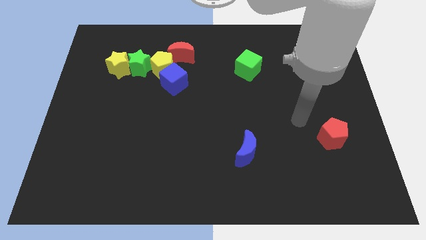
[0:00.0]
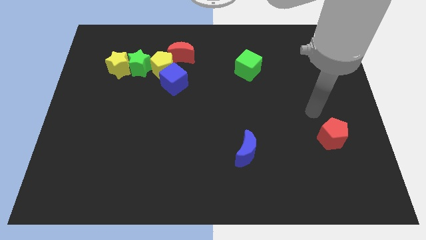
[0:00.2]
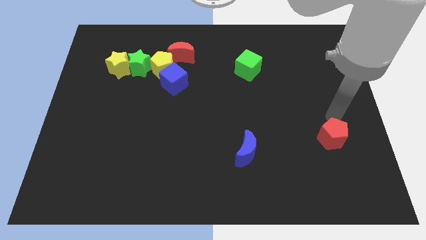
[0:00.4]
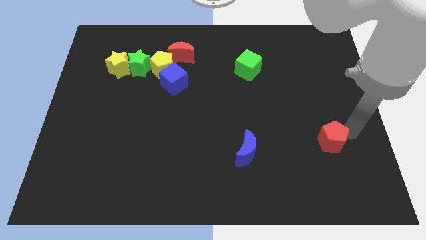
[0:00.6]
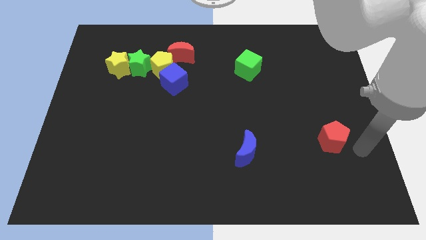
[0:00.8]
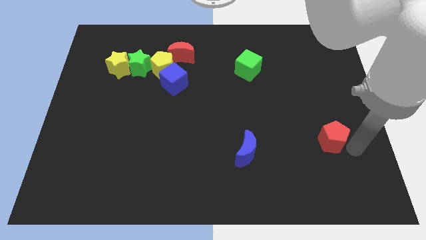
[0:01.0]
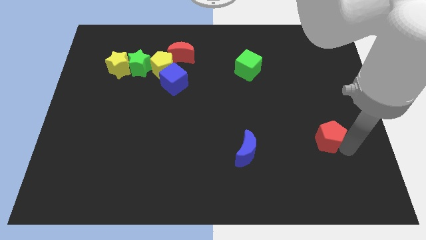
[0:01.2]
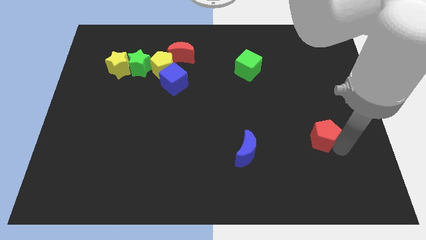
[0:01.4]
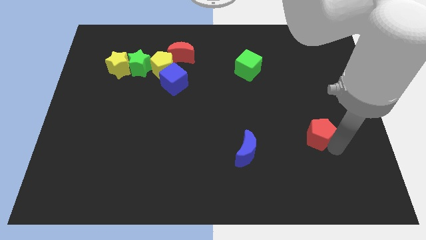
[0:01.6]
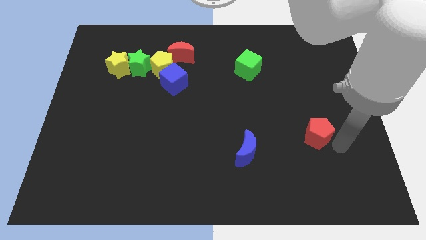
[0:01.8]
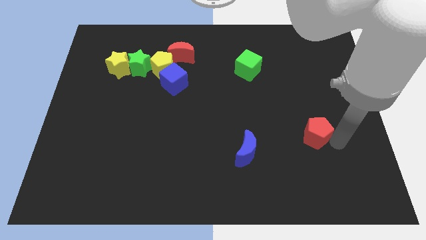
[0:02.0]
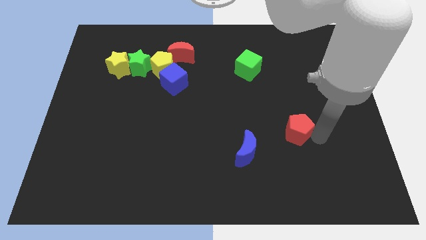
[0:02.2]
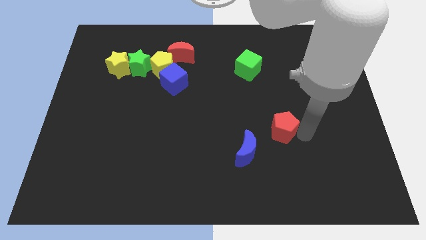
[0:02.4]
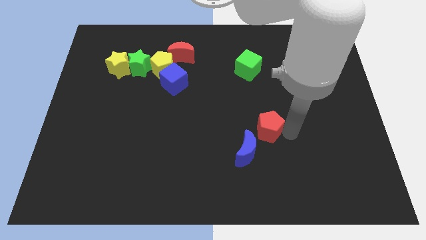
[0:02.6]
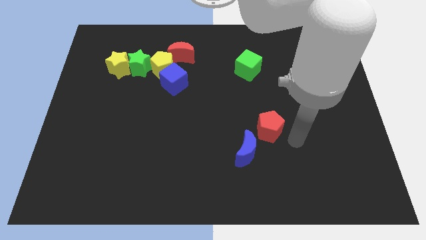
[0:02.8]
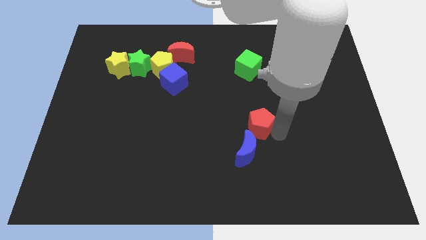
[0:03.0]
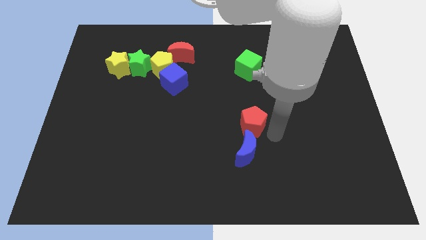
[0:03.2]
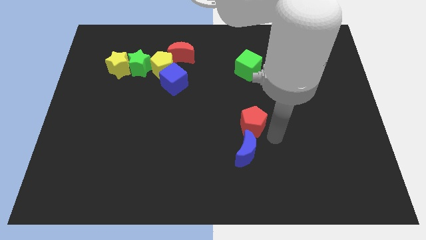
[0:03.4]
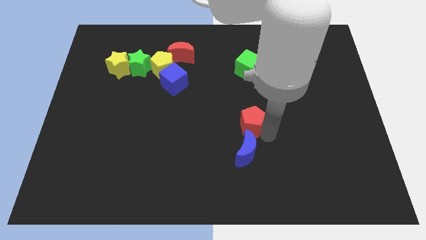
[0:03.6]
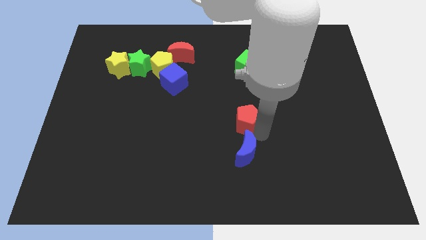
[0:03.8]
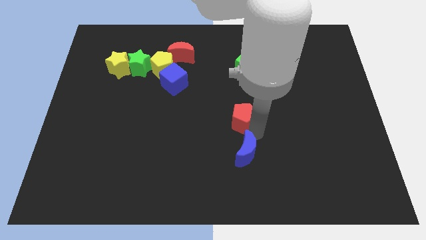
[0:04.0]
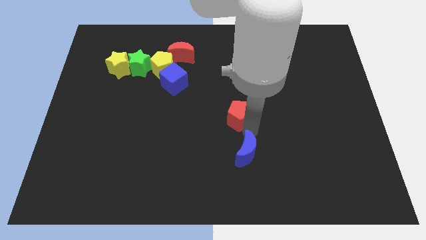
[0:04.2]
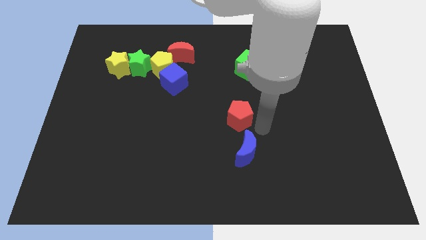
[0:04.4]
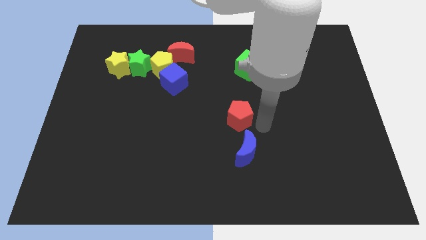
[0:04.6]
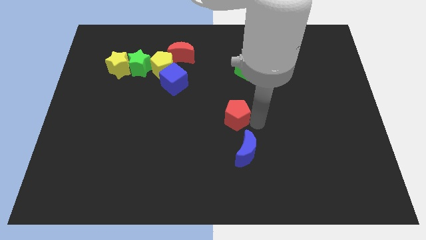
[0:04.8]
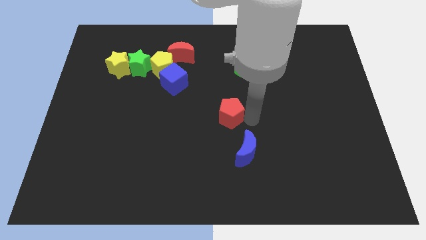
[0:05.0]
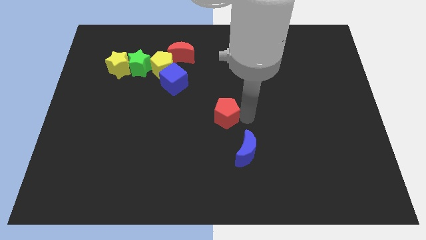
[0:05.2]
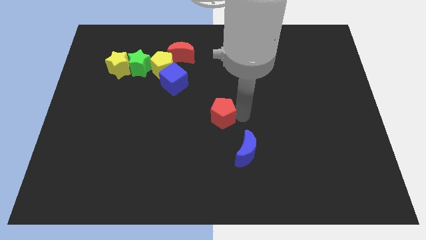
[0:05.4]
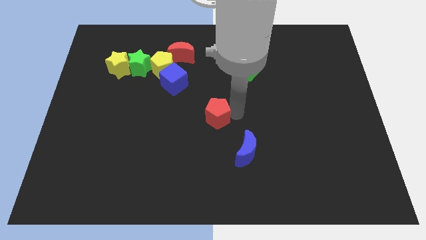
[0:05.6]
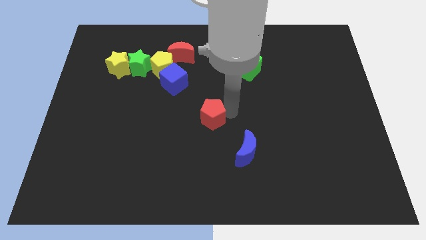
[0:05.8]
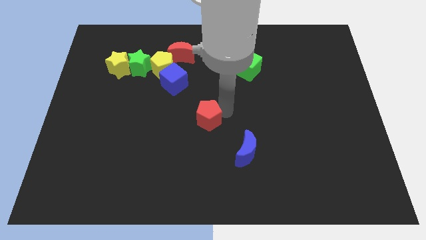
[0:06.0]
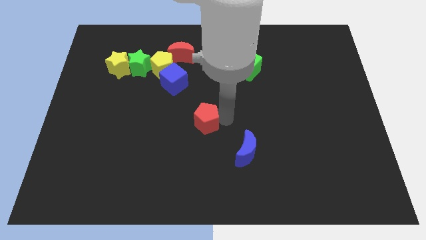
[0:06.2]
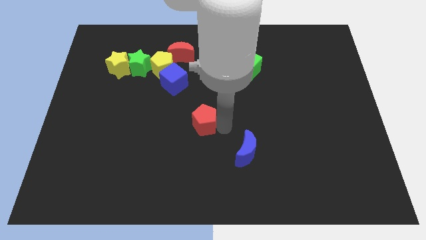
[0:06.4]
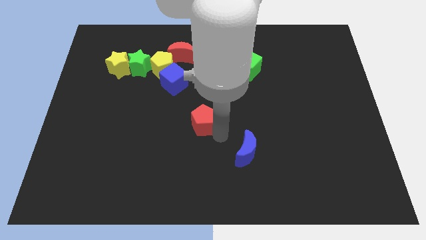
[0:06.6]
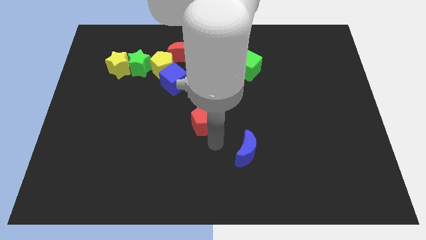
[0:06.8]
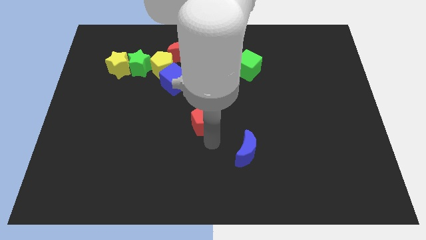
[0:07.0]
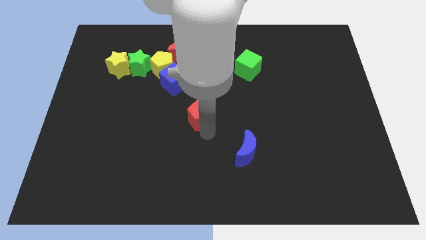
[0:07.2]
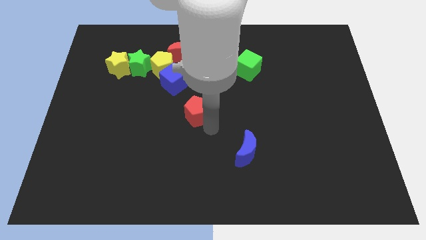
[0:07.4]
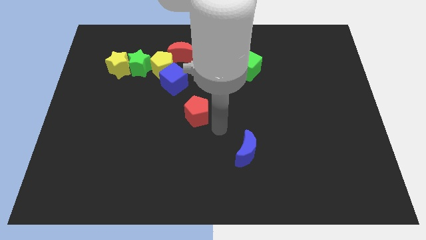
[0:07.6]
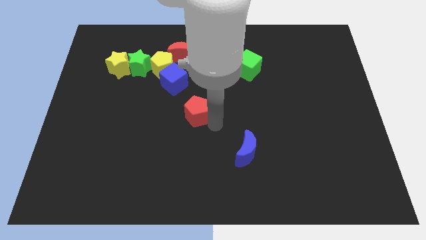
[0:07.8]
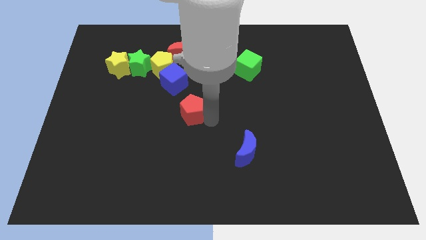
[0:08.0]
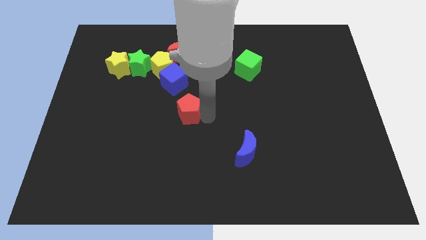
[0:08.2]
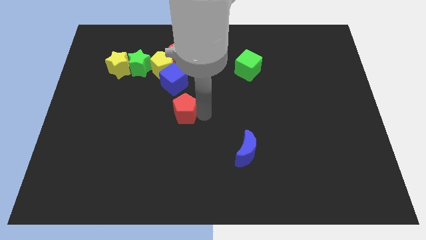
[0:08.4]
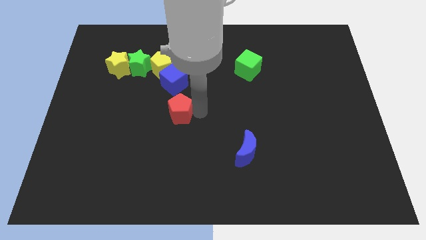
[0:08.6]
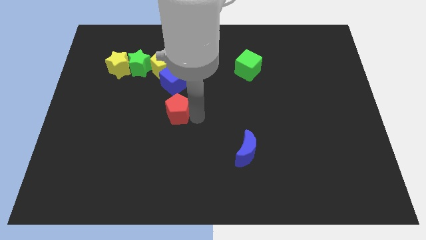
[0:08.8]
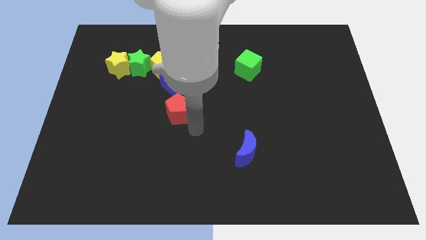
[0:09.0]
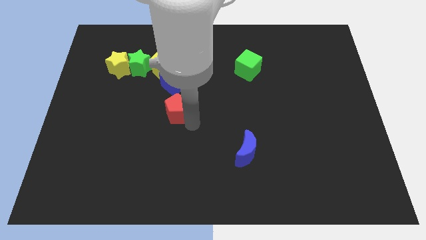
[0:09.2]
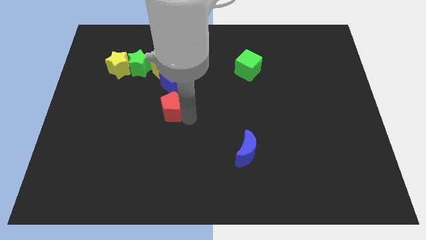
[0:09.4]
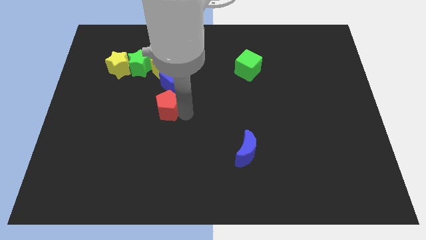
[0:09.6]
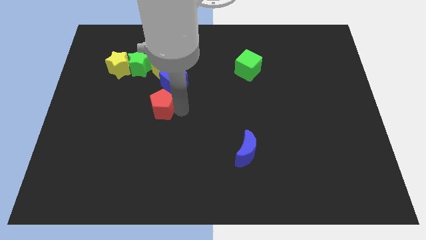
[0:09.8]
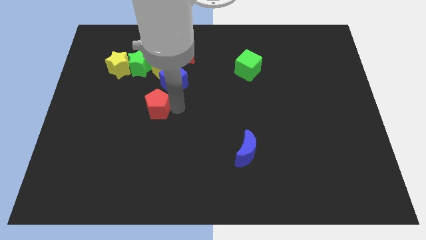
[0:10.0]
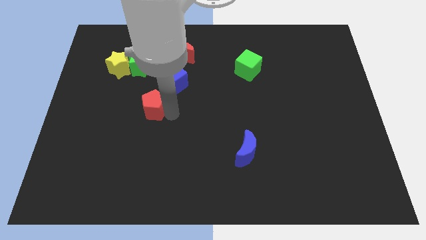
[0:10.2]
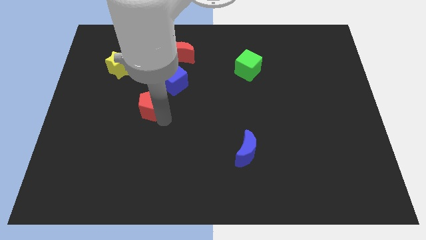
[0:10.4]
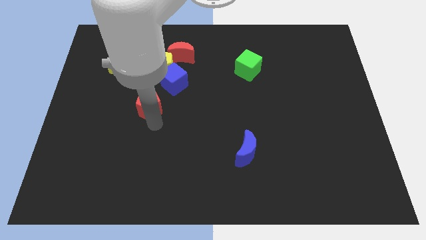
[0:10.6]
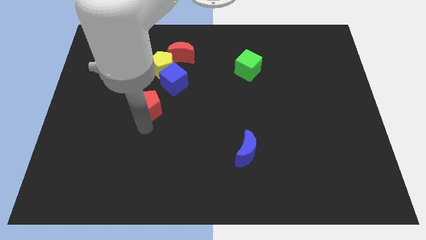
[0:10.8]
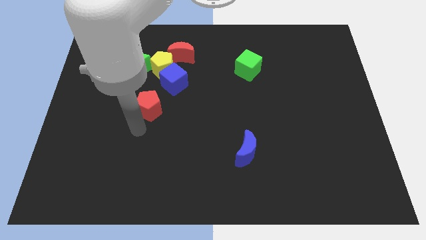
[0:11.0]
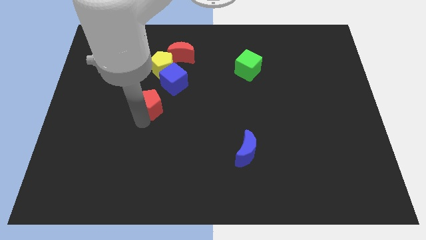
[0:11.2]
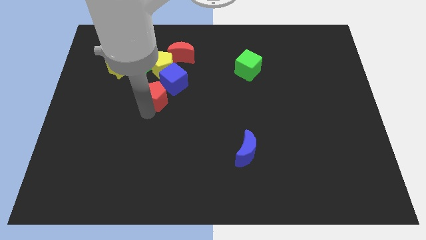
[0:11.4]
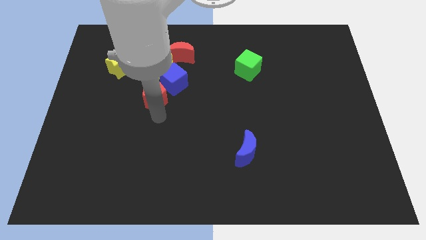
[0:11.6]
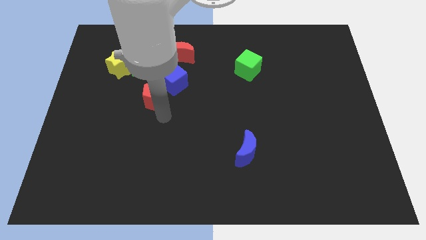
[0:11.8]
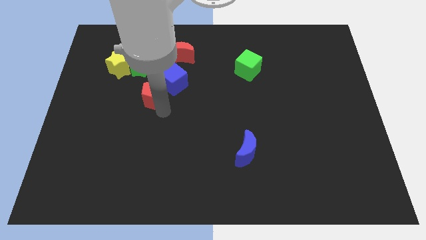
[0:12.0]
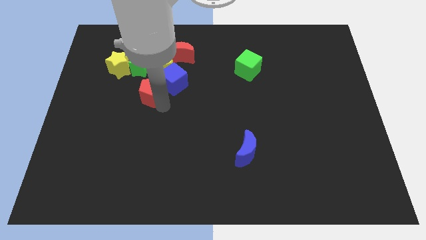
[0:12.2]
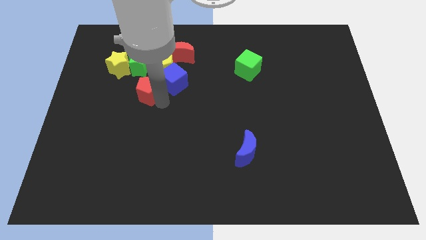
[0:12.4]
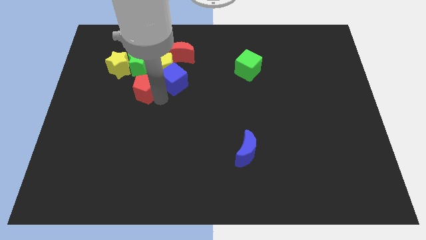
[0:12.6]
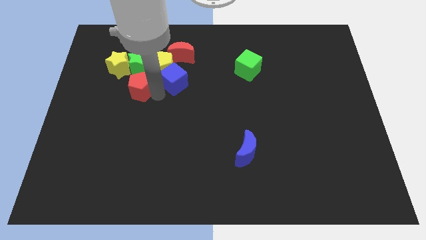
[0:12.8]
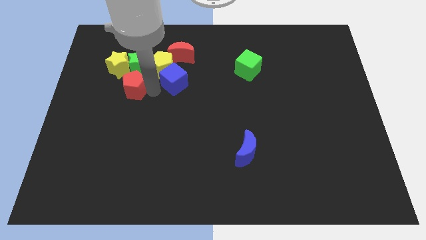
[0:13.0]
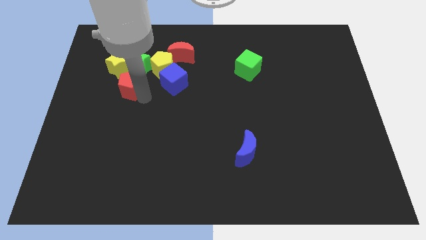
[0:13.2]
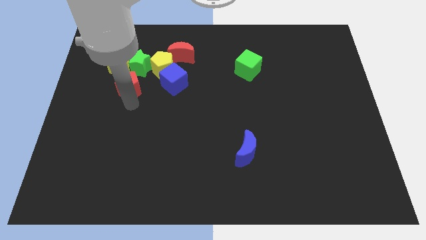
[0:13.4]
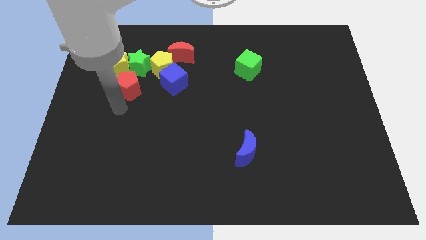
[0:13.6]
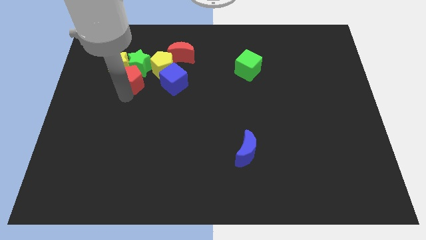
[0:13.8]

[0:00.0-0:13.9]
push the red pentagon close to the green star

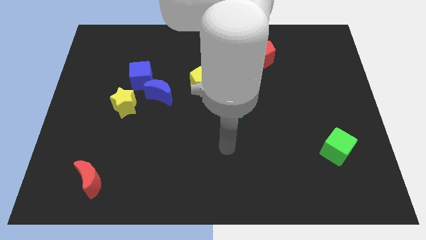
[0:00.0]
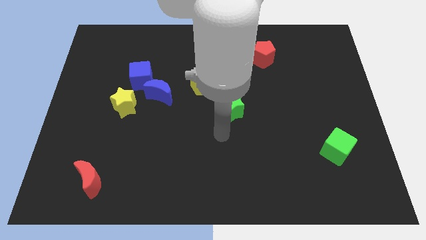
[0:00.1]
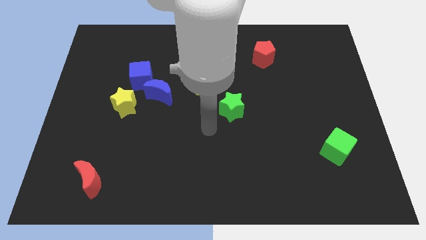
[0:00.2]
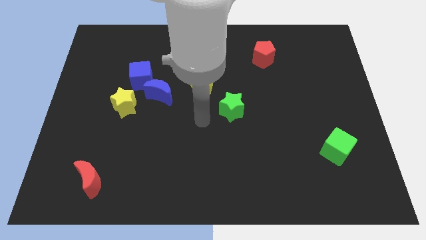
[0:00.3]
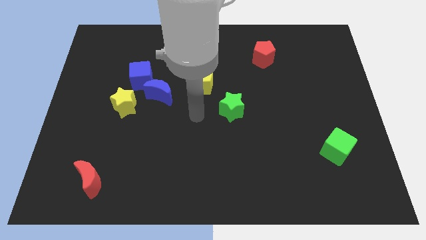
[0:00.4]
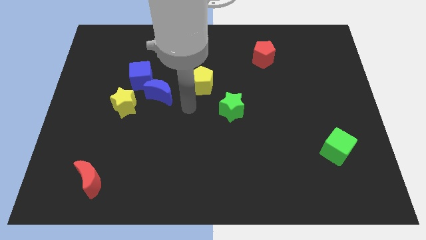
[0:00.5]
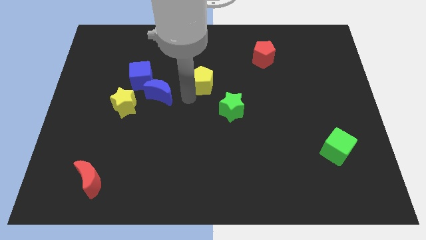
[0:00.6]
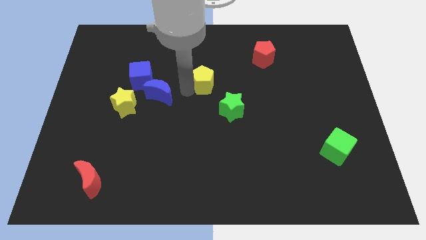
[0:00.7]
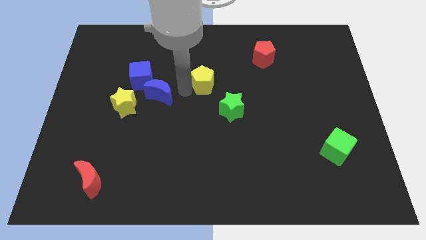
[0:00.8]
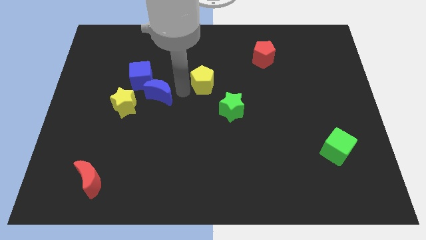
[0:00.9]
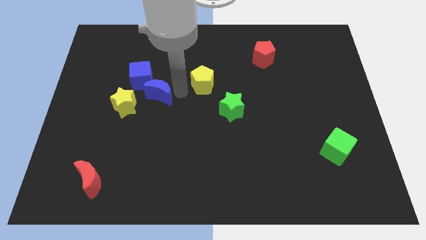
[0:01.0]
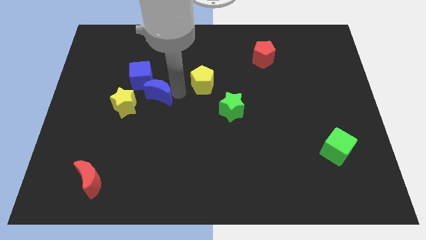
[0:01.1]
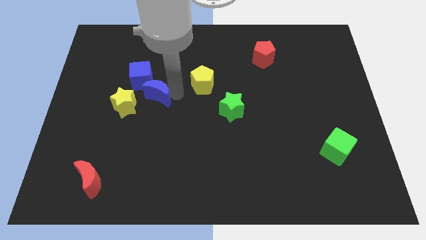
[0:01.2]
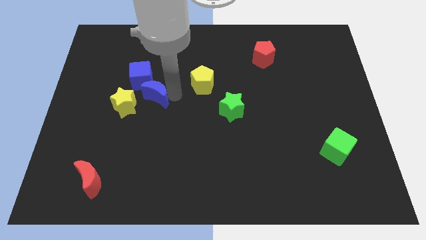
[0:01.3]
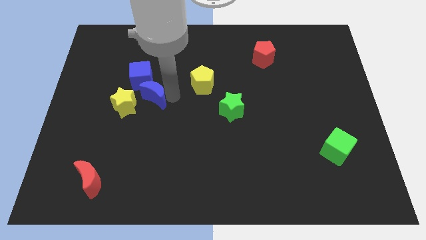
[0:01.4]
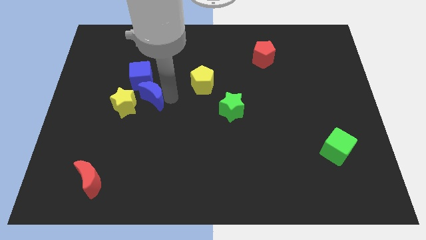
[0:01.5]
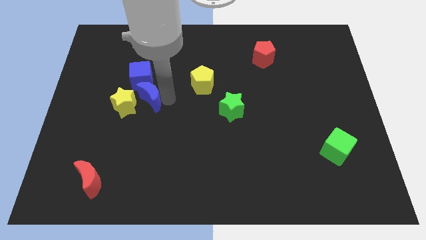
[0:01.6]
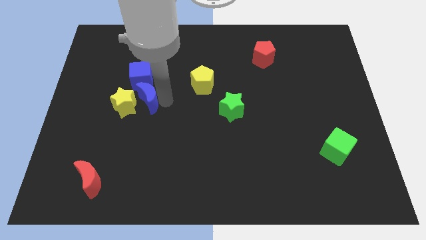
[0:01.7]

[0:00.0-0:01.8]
put the blue moon towards the yellow star
